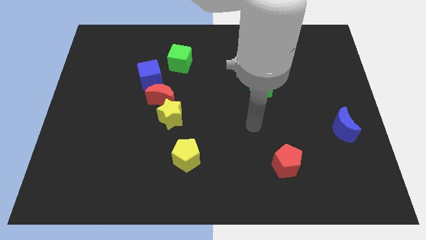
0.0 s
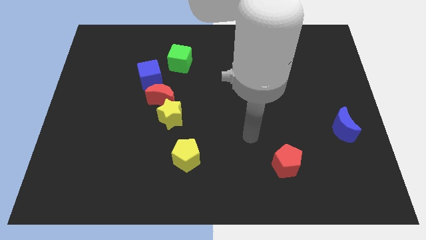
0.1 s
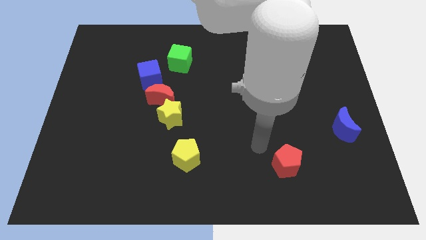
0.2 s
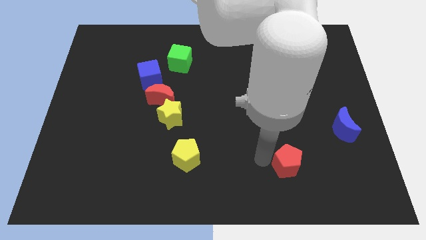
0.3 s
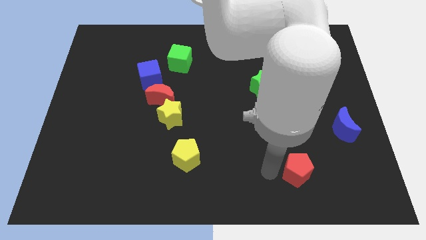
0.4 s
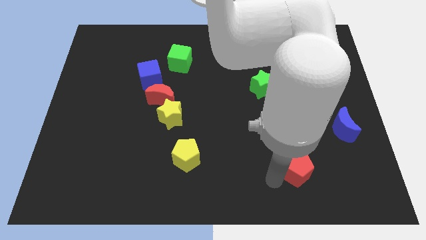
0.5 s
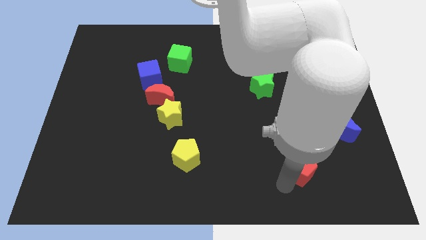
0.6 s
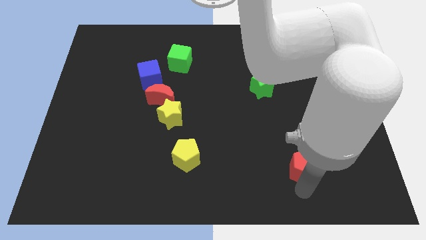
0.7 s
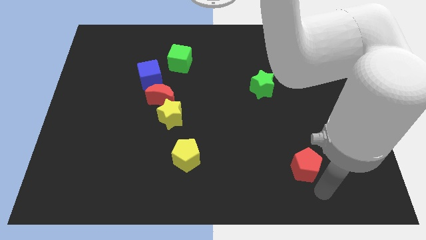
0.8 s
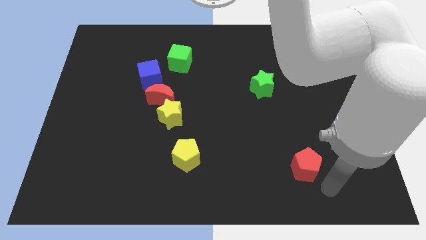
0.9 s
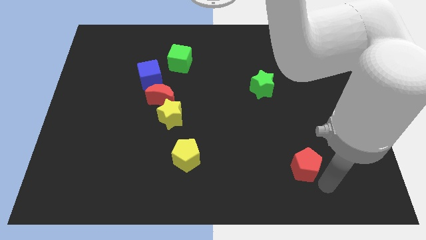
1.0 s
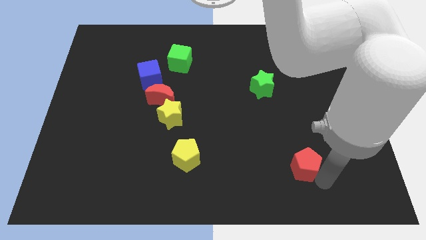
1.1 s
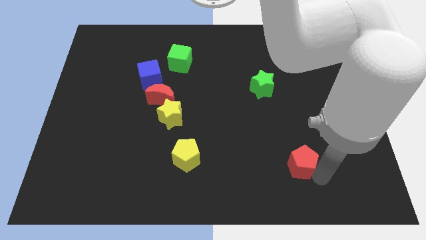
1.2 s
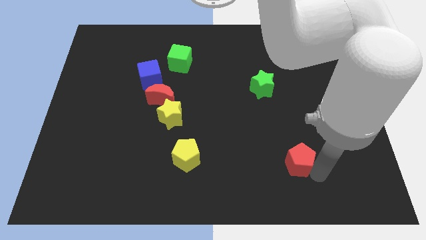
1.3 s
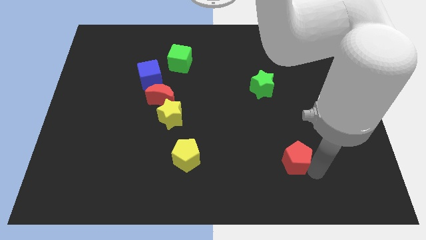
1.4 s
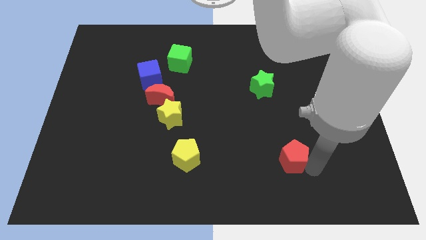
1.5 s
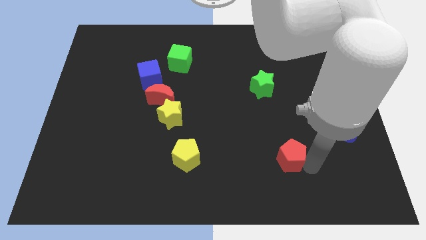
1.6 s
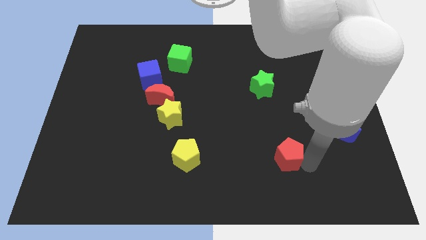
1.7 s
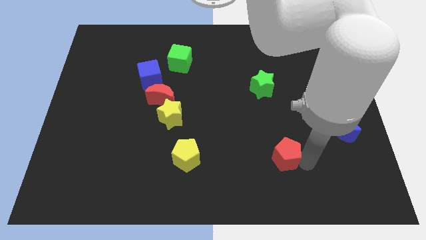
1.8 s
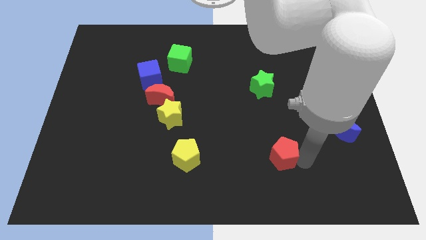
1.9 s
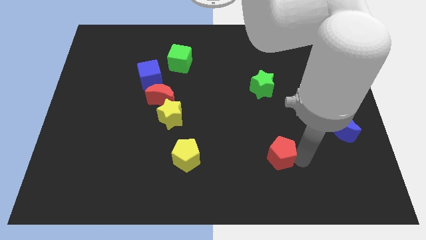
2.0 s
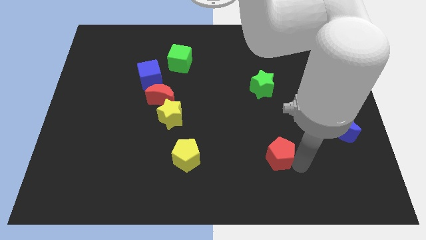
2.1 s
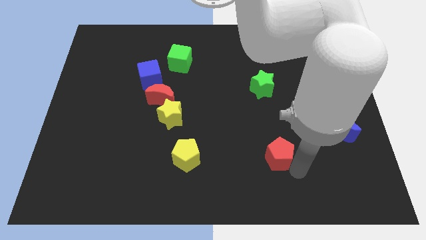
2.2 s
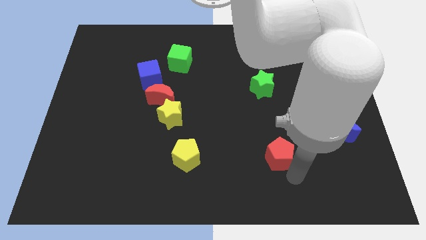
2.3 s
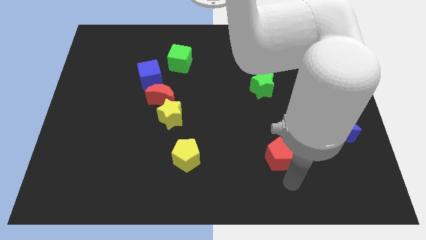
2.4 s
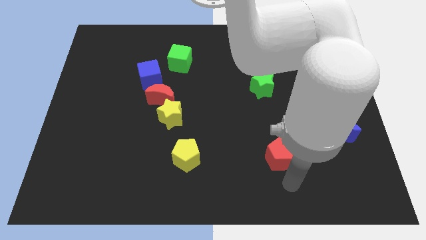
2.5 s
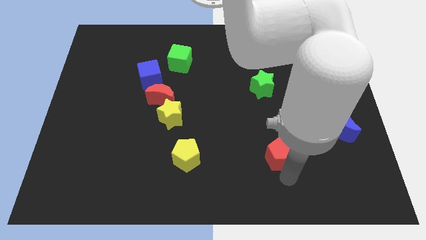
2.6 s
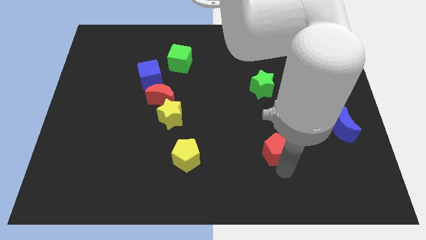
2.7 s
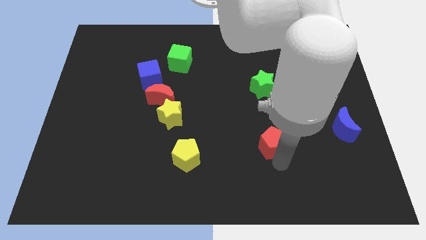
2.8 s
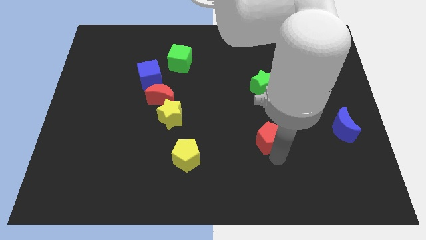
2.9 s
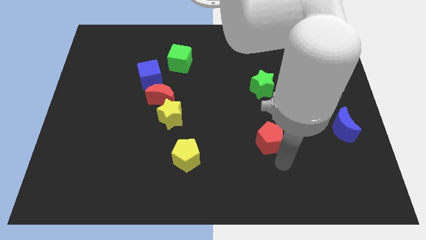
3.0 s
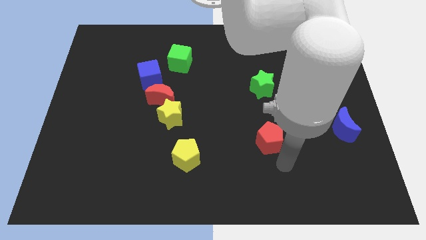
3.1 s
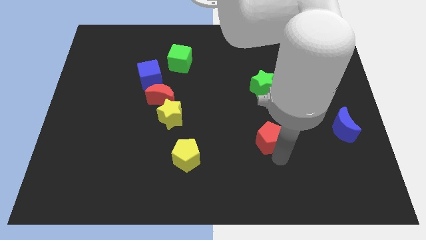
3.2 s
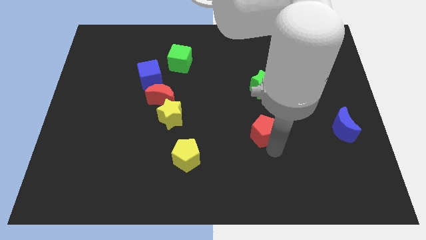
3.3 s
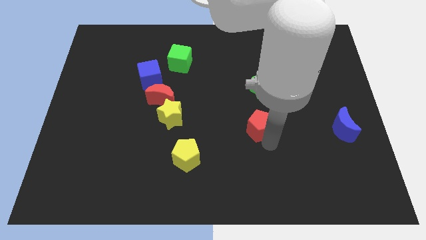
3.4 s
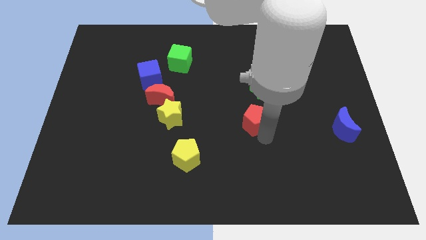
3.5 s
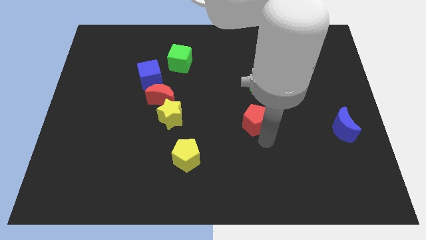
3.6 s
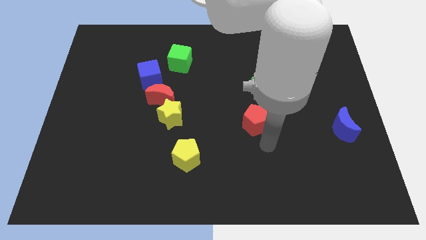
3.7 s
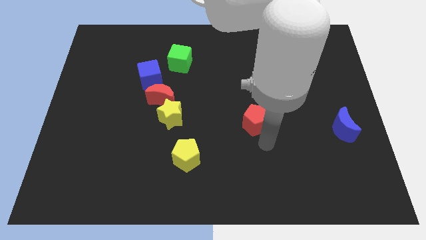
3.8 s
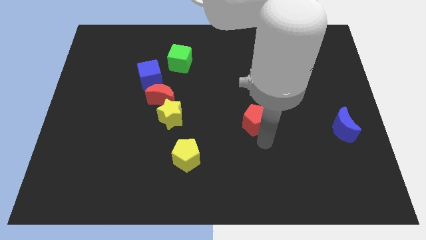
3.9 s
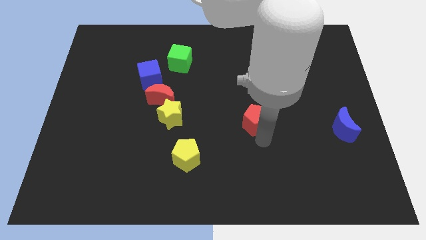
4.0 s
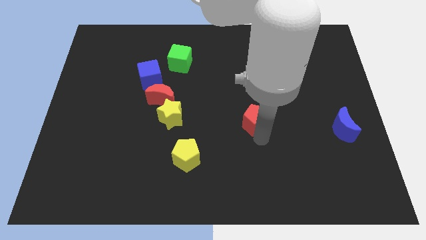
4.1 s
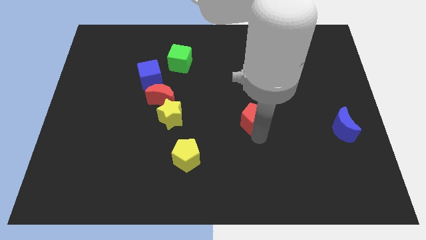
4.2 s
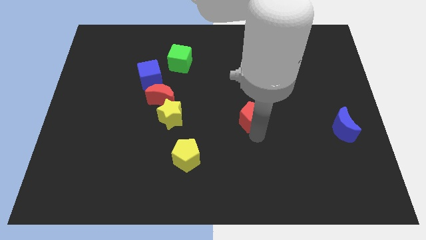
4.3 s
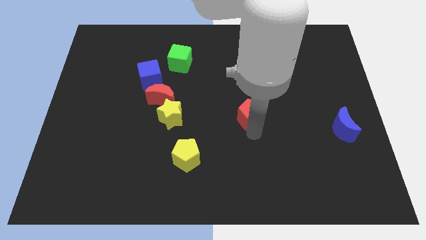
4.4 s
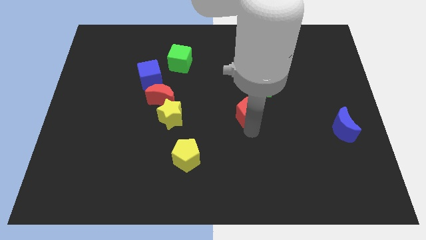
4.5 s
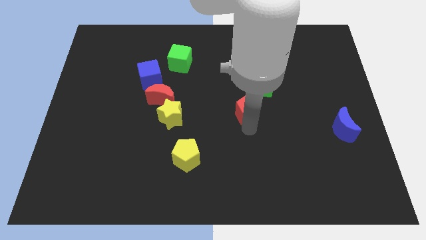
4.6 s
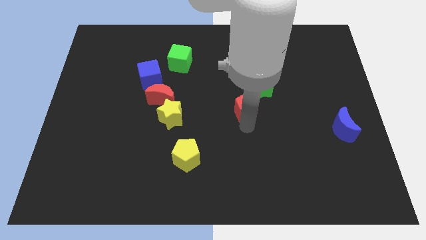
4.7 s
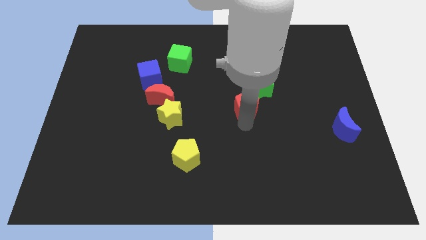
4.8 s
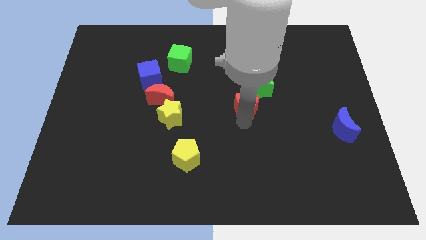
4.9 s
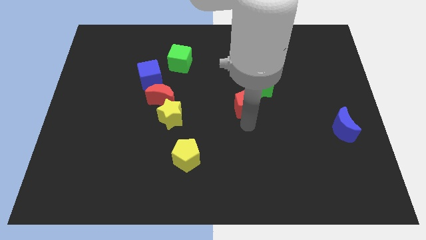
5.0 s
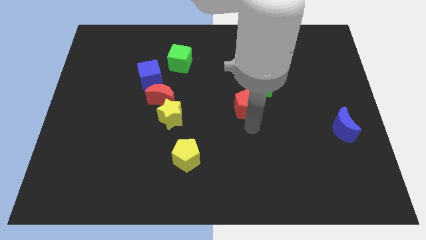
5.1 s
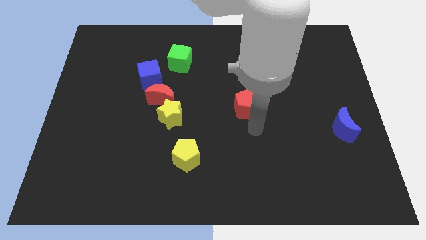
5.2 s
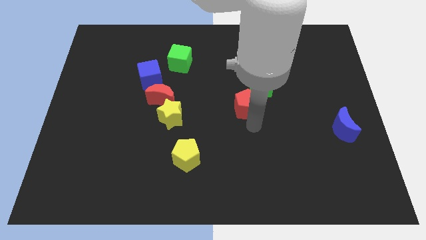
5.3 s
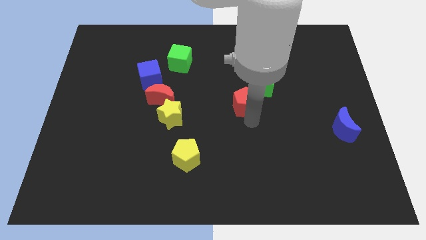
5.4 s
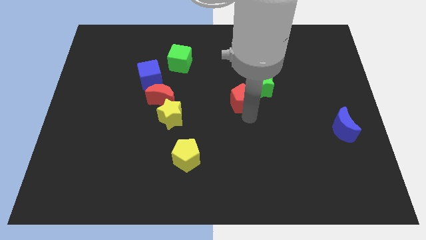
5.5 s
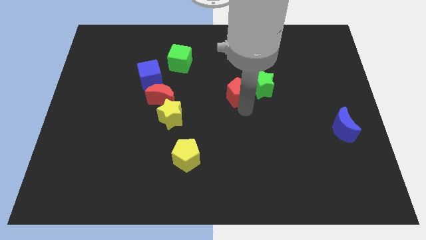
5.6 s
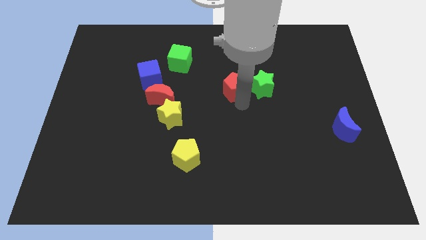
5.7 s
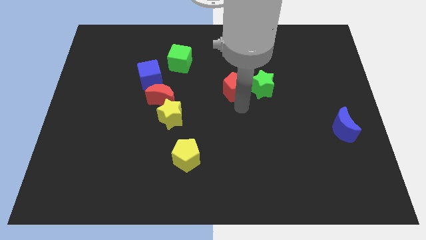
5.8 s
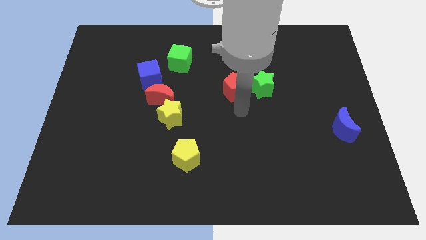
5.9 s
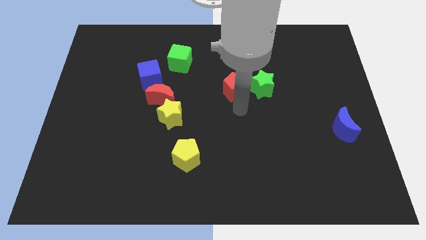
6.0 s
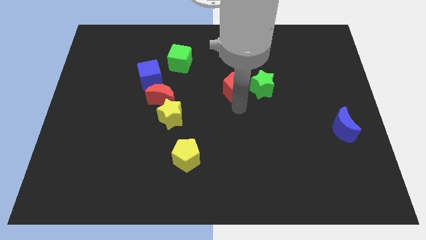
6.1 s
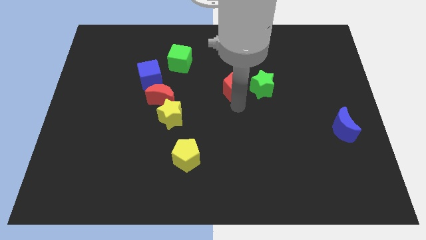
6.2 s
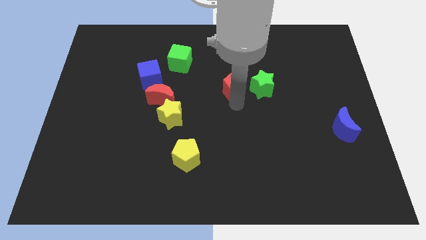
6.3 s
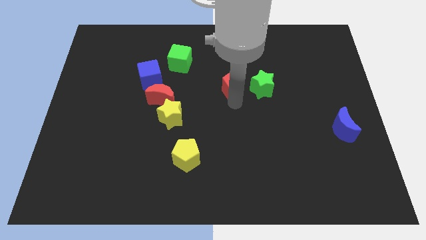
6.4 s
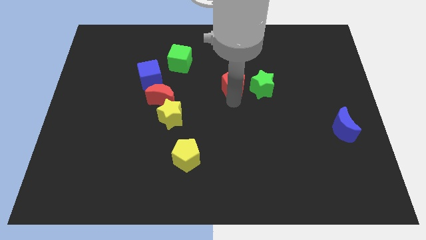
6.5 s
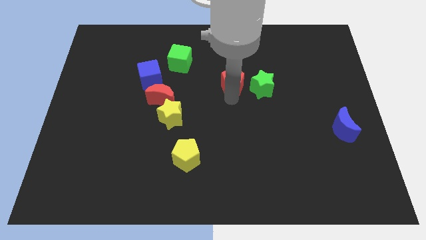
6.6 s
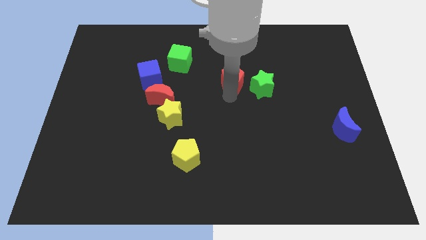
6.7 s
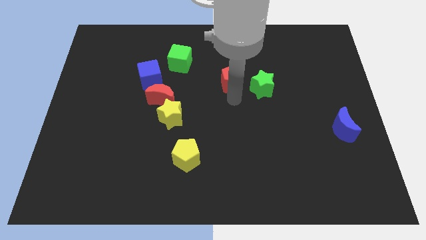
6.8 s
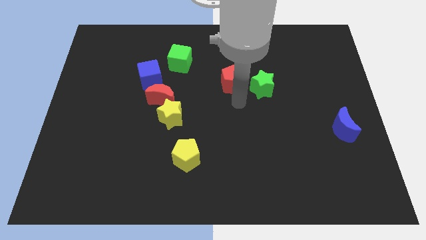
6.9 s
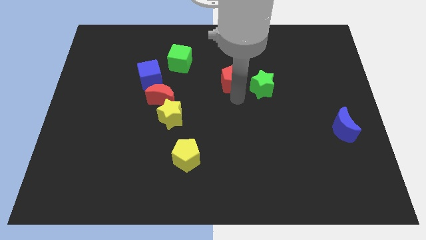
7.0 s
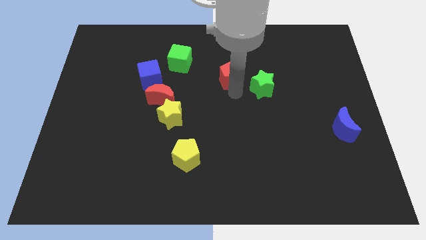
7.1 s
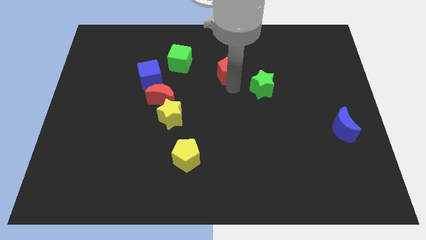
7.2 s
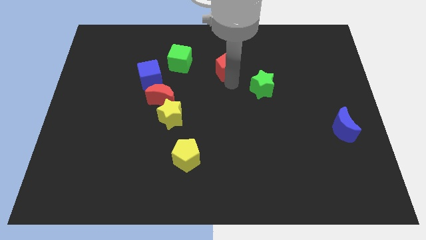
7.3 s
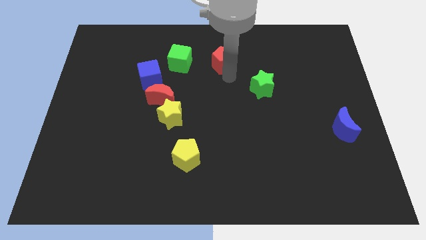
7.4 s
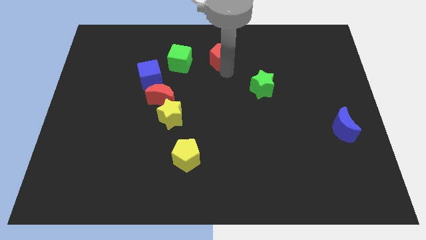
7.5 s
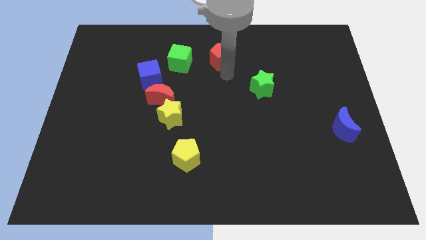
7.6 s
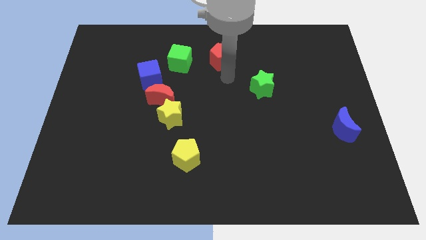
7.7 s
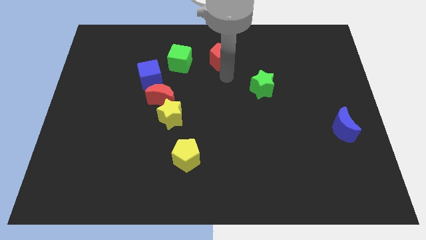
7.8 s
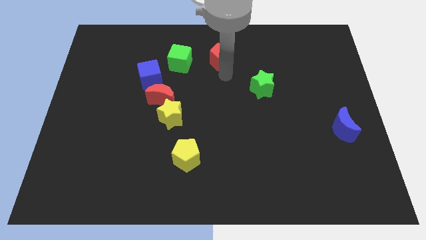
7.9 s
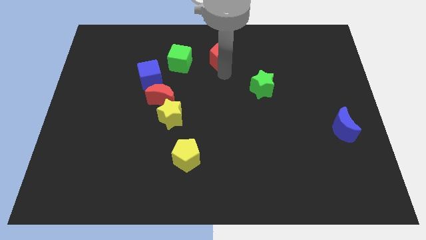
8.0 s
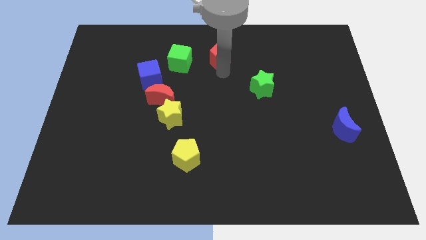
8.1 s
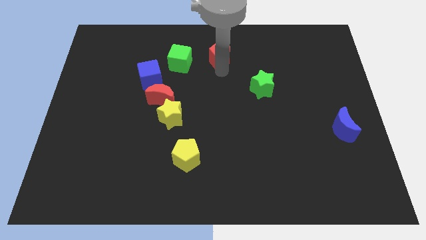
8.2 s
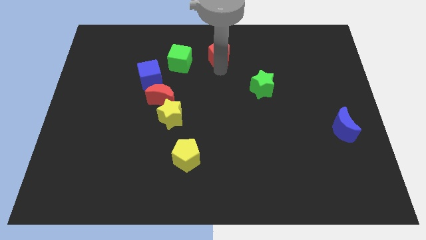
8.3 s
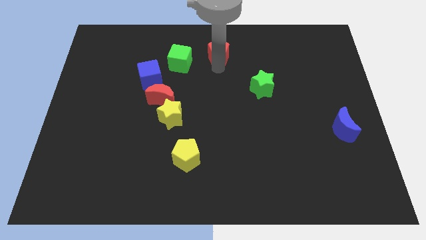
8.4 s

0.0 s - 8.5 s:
put the red pentagon to the top side
